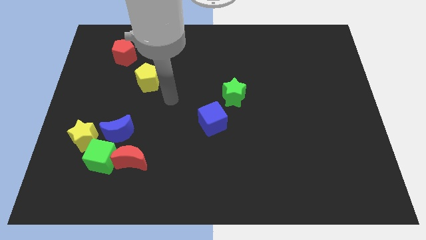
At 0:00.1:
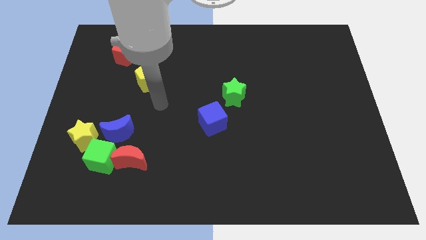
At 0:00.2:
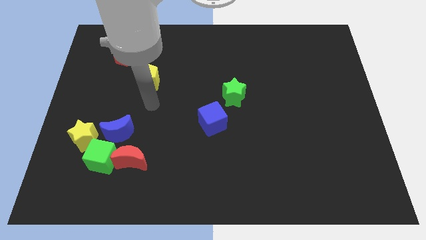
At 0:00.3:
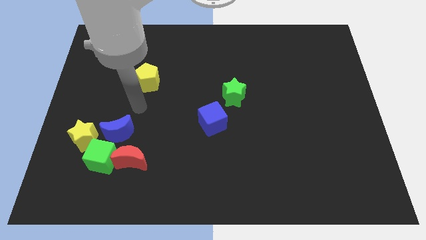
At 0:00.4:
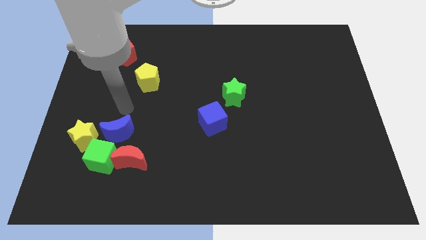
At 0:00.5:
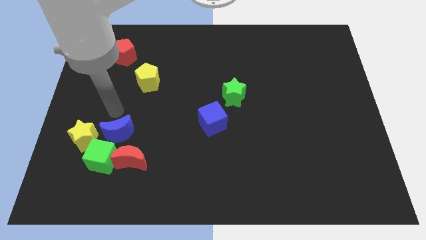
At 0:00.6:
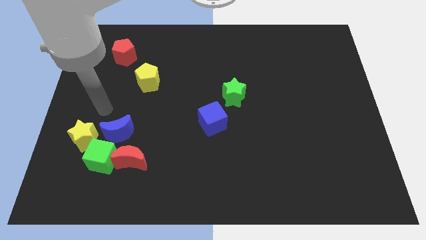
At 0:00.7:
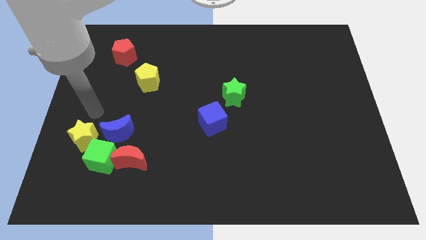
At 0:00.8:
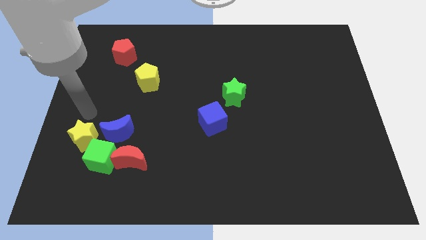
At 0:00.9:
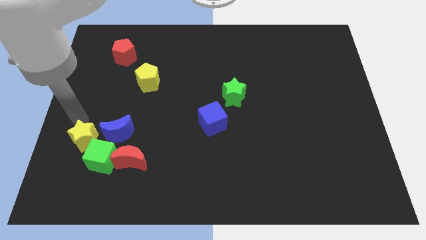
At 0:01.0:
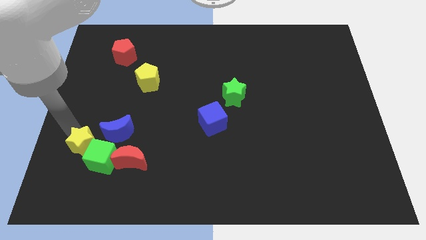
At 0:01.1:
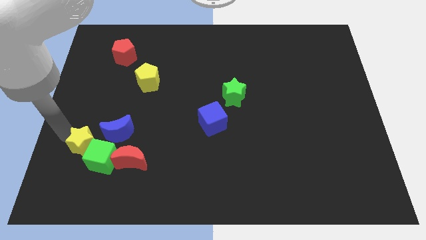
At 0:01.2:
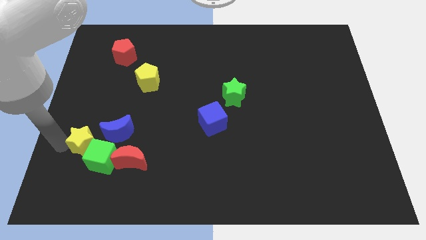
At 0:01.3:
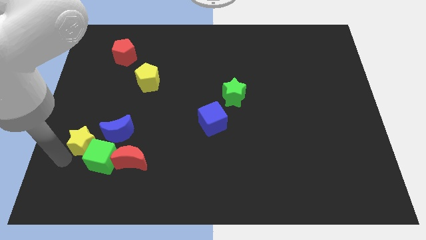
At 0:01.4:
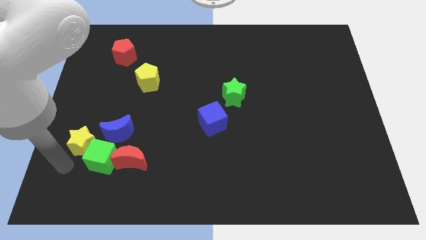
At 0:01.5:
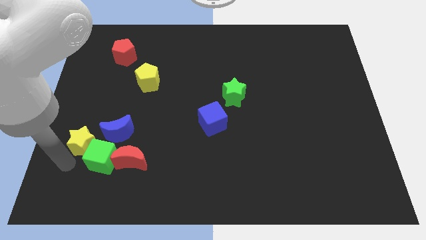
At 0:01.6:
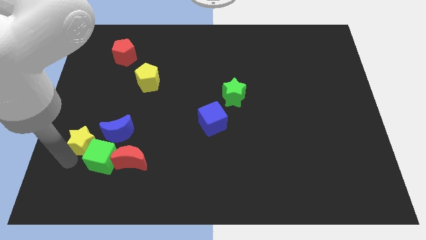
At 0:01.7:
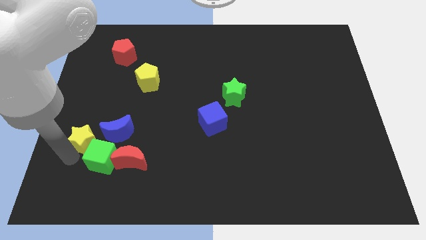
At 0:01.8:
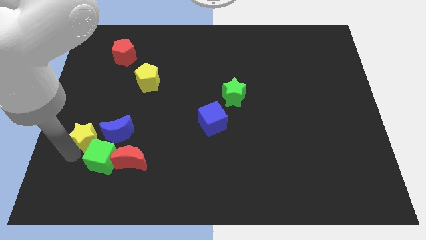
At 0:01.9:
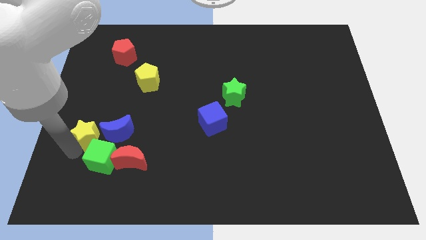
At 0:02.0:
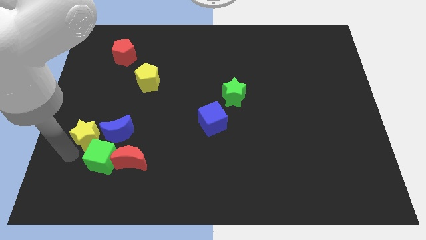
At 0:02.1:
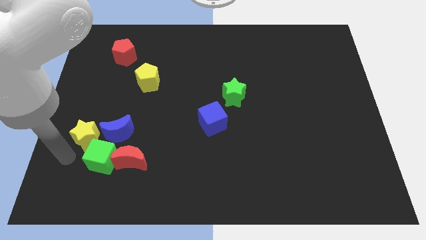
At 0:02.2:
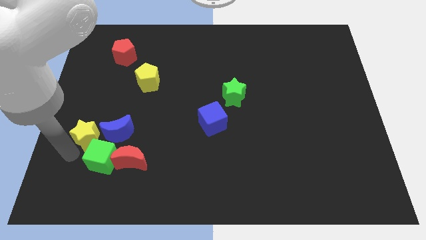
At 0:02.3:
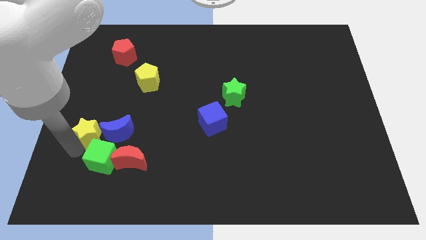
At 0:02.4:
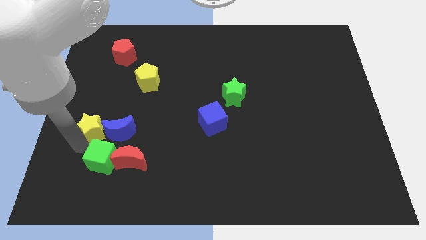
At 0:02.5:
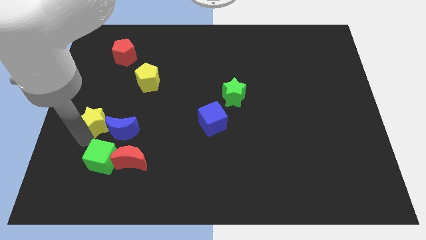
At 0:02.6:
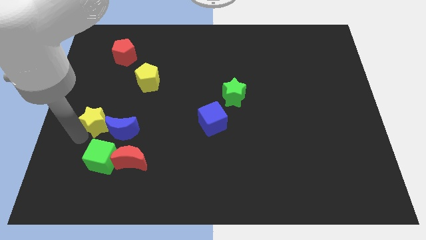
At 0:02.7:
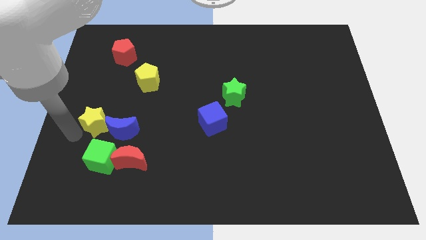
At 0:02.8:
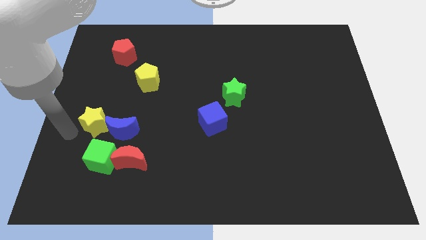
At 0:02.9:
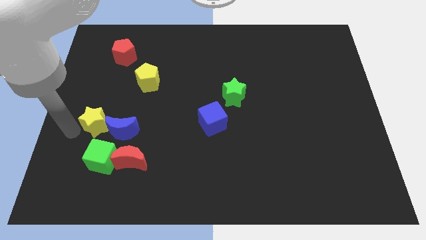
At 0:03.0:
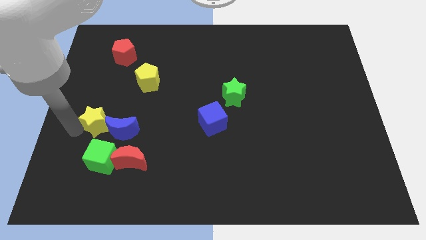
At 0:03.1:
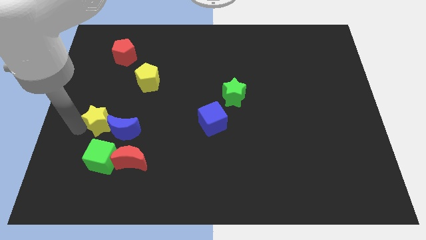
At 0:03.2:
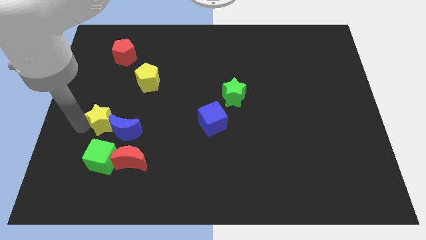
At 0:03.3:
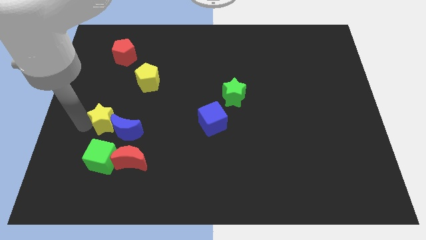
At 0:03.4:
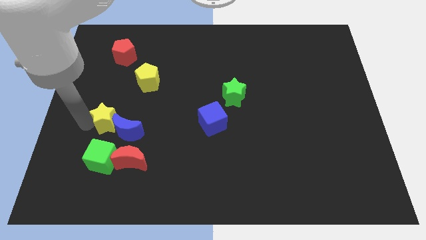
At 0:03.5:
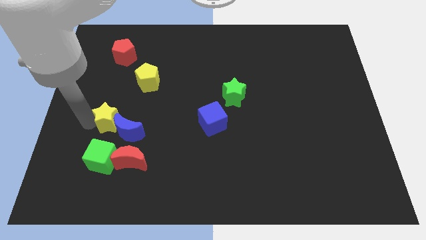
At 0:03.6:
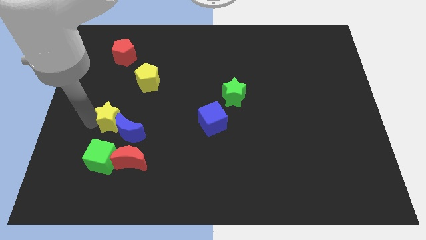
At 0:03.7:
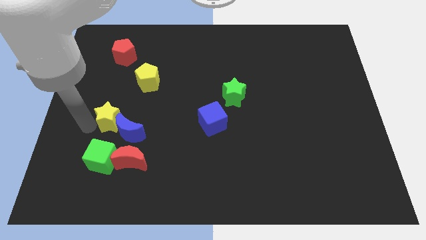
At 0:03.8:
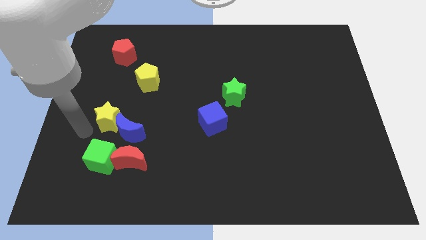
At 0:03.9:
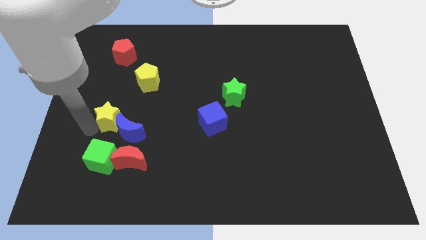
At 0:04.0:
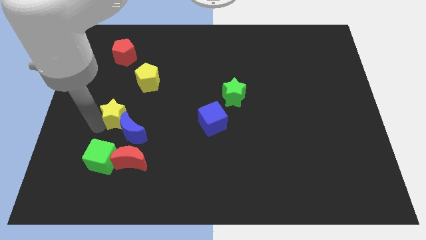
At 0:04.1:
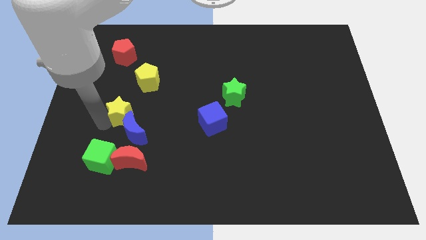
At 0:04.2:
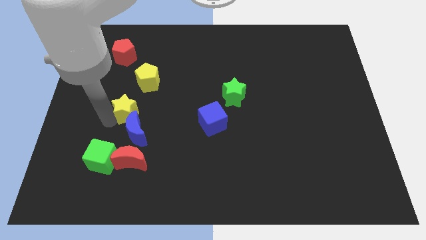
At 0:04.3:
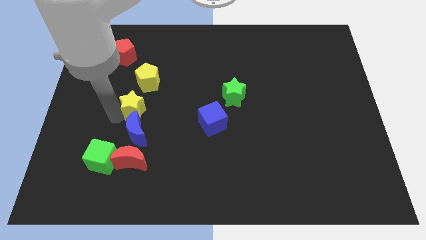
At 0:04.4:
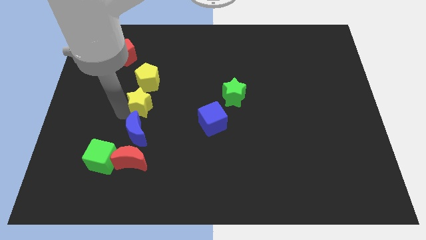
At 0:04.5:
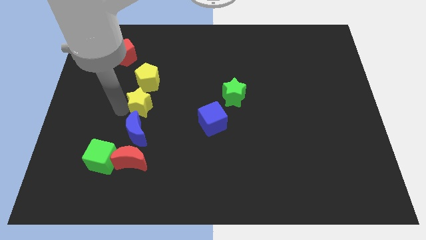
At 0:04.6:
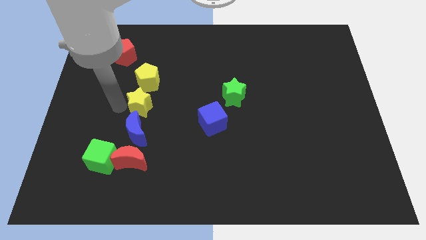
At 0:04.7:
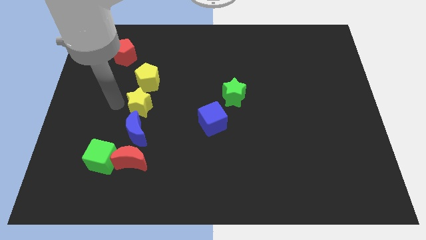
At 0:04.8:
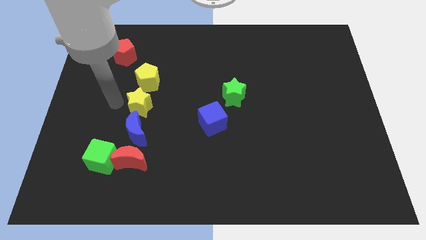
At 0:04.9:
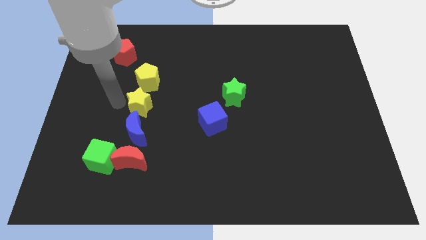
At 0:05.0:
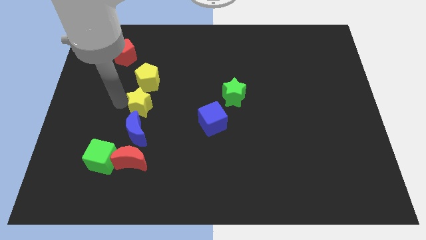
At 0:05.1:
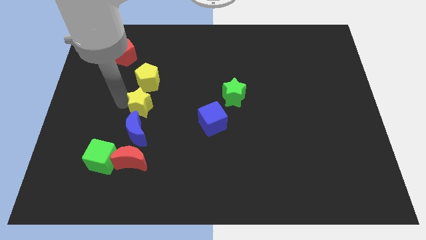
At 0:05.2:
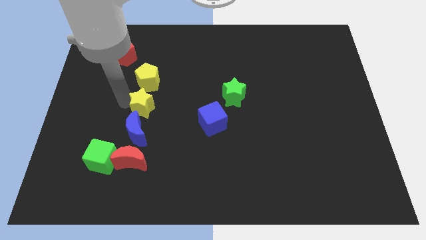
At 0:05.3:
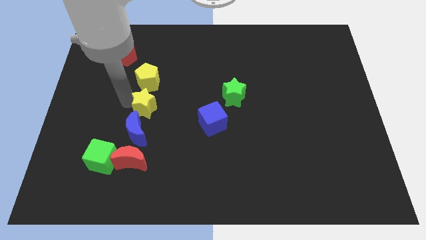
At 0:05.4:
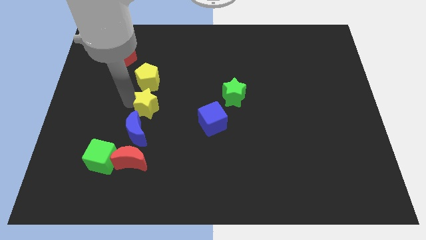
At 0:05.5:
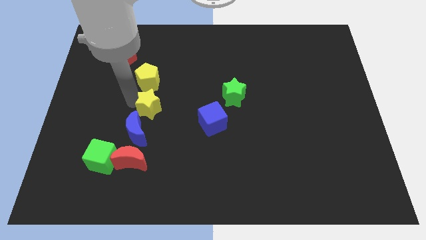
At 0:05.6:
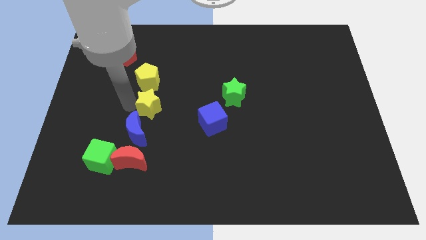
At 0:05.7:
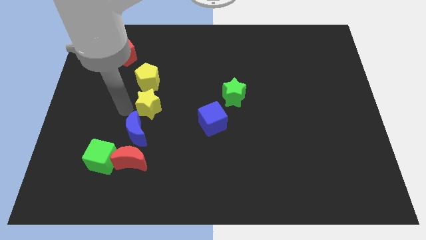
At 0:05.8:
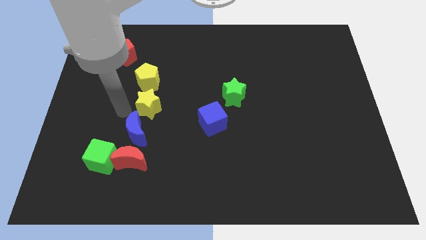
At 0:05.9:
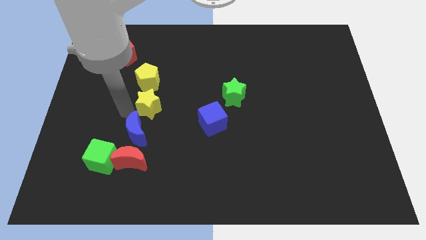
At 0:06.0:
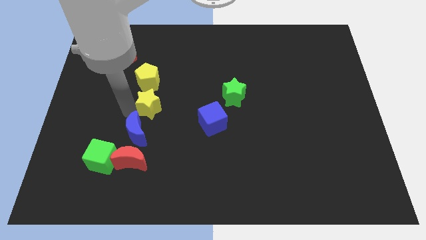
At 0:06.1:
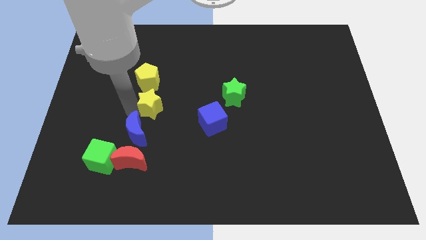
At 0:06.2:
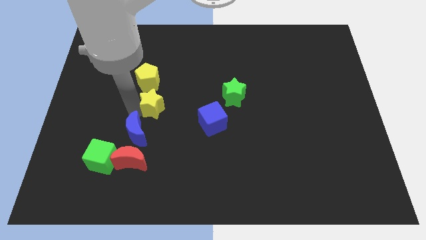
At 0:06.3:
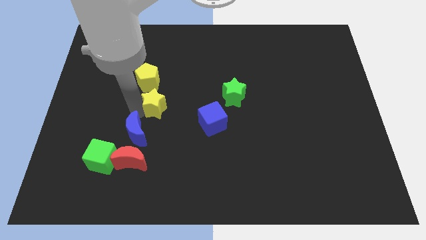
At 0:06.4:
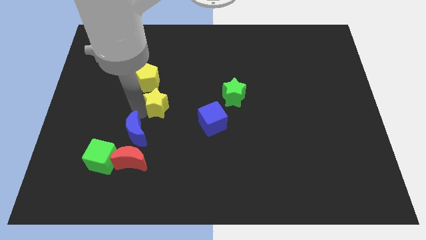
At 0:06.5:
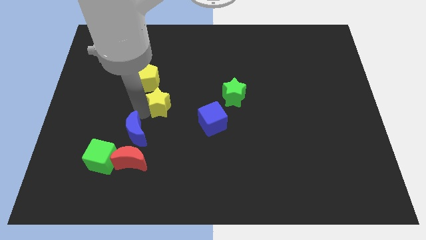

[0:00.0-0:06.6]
move the yellow star to the center

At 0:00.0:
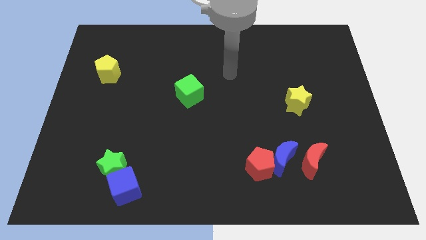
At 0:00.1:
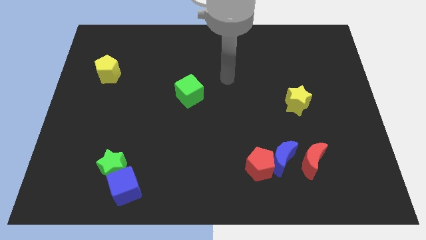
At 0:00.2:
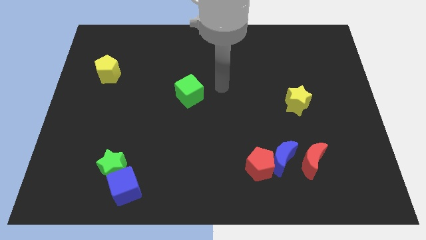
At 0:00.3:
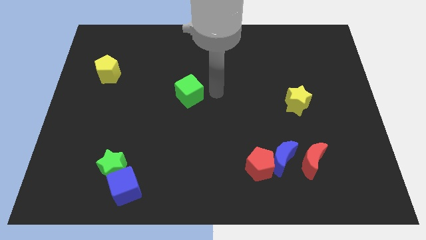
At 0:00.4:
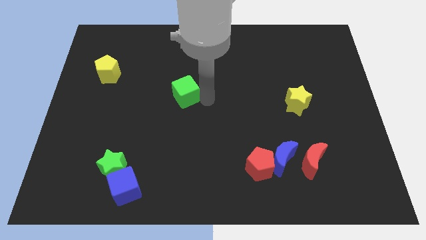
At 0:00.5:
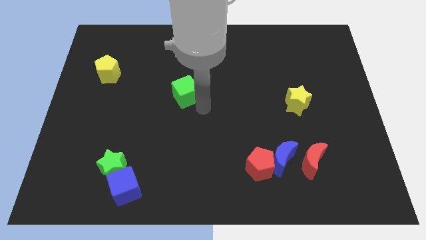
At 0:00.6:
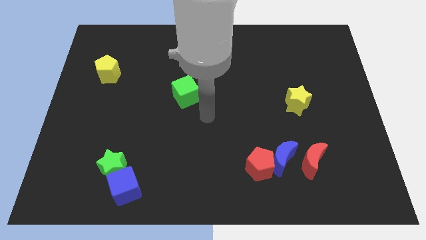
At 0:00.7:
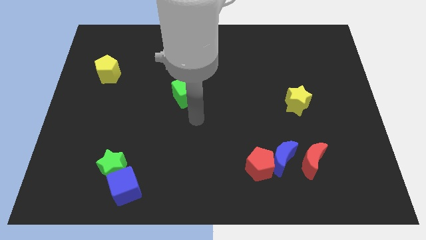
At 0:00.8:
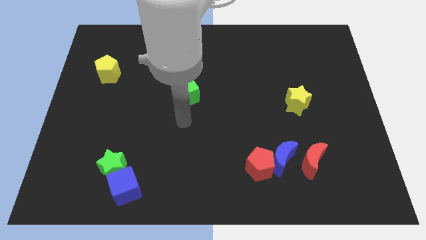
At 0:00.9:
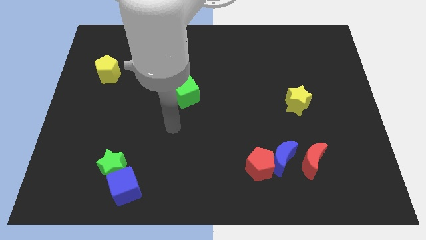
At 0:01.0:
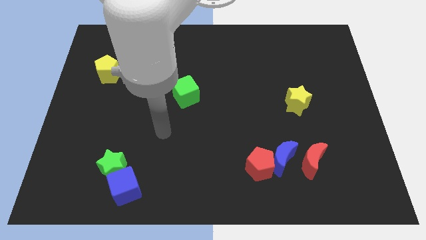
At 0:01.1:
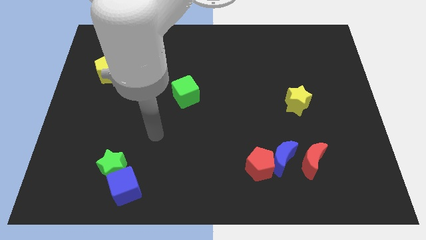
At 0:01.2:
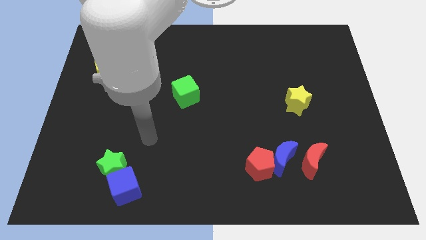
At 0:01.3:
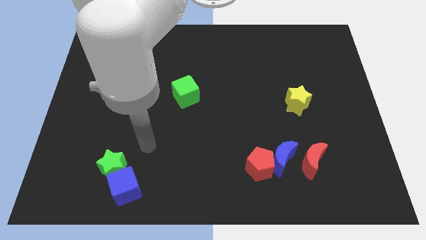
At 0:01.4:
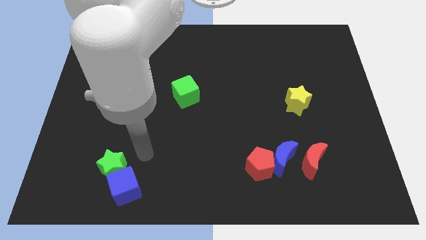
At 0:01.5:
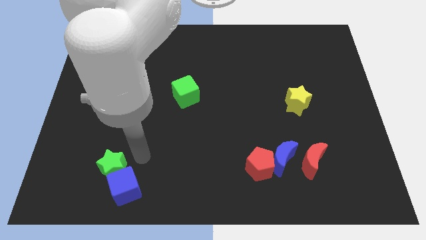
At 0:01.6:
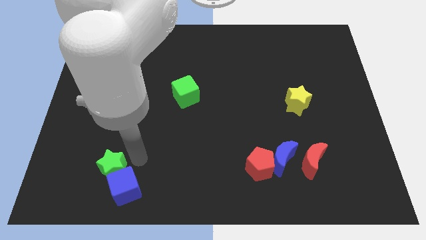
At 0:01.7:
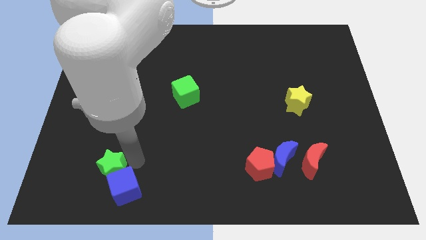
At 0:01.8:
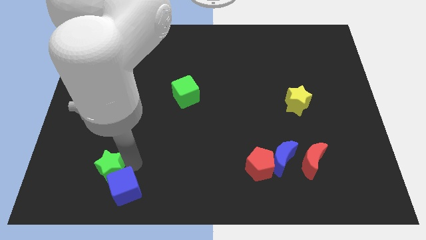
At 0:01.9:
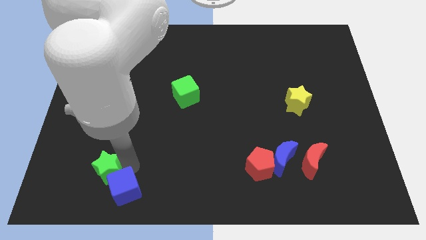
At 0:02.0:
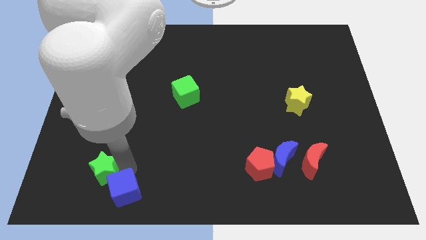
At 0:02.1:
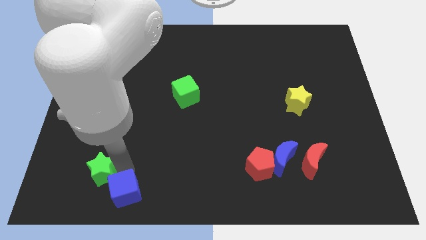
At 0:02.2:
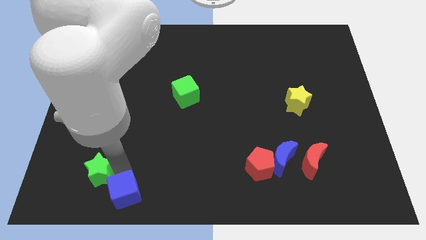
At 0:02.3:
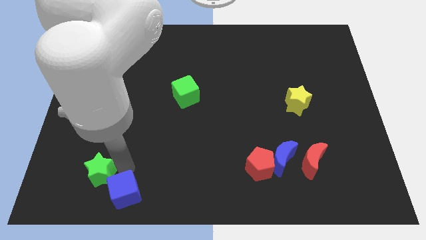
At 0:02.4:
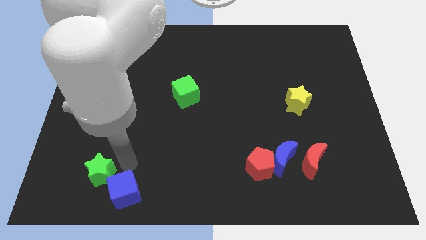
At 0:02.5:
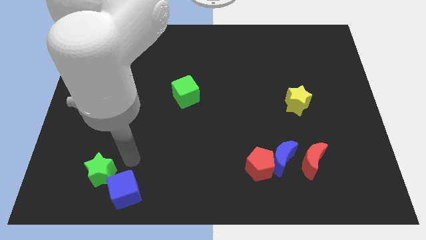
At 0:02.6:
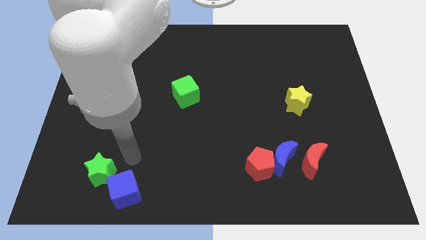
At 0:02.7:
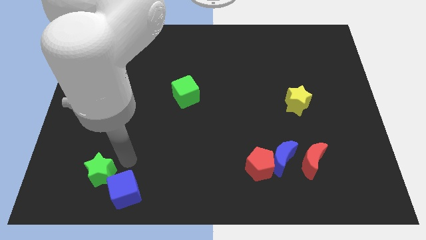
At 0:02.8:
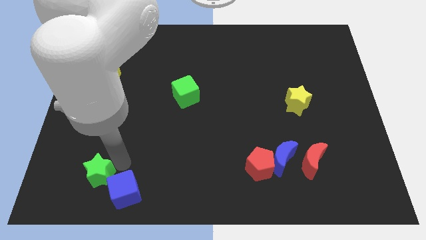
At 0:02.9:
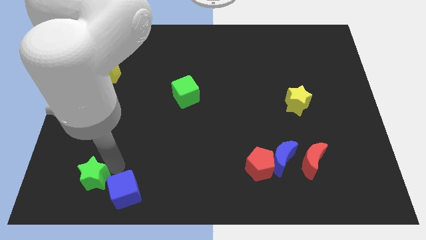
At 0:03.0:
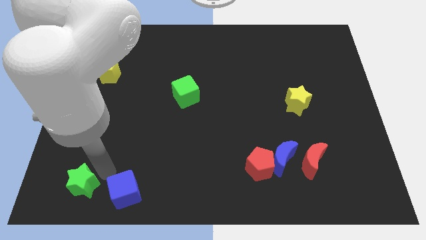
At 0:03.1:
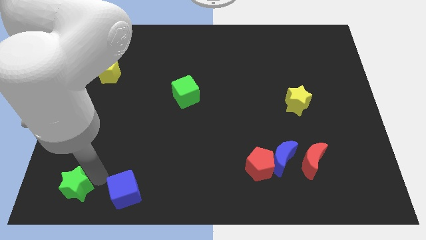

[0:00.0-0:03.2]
push the green star to the bottom left of the board
